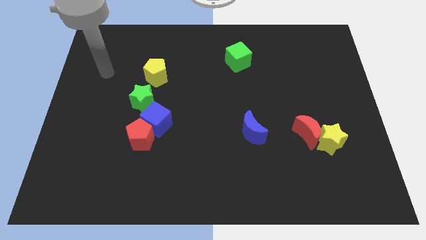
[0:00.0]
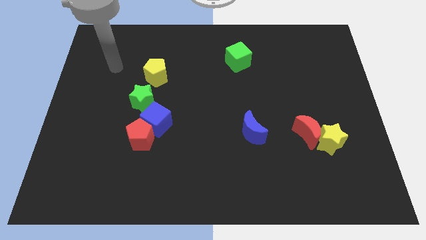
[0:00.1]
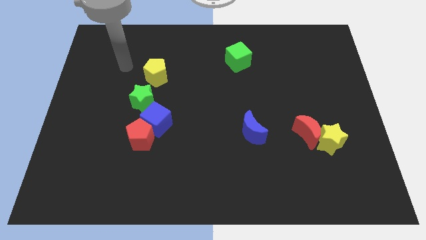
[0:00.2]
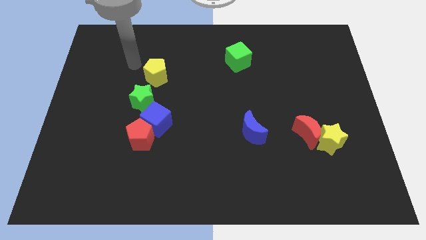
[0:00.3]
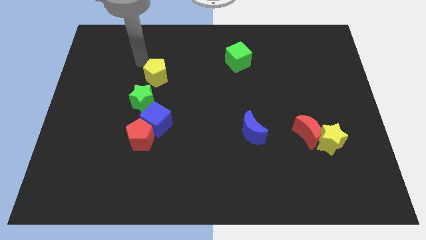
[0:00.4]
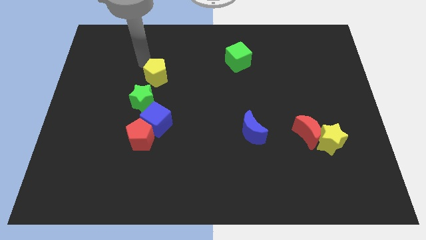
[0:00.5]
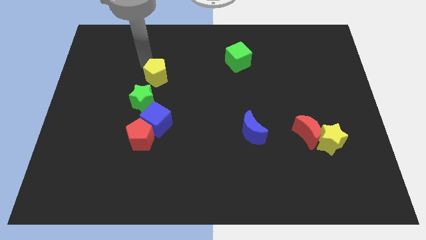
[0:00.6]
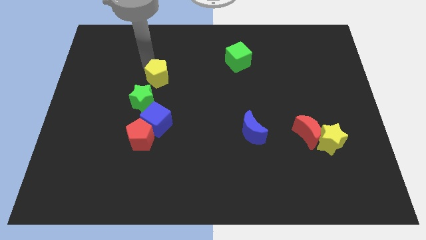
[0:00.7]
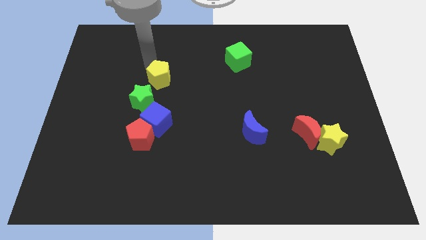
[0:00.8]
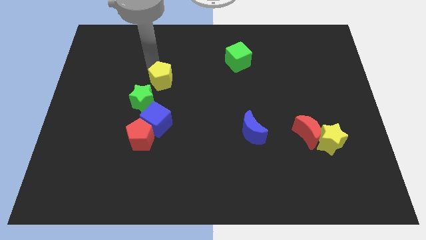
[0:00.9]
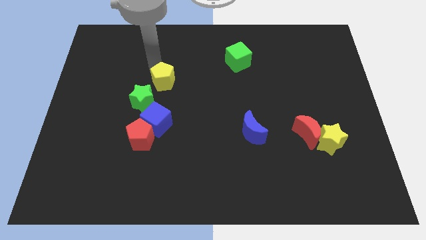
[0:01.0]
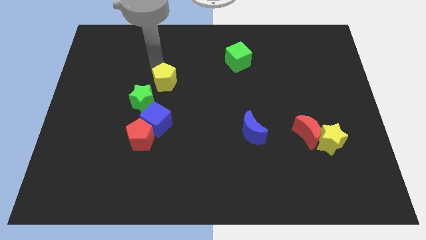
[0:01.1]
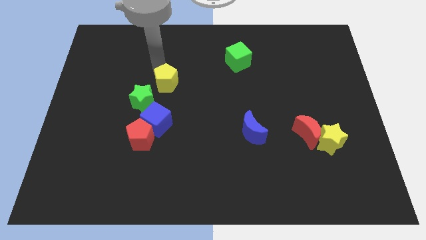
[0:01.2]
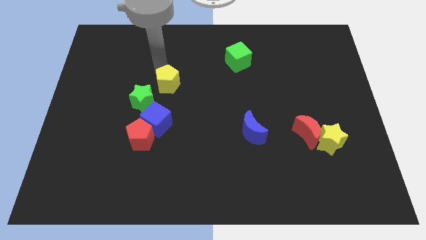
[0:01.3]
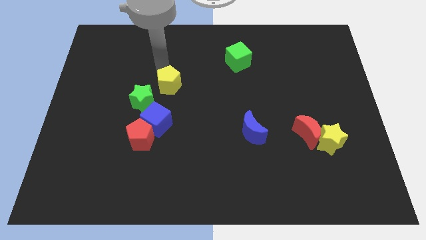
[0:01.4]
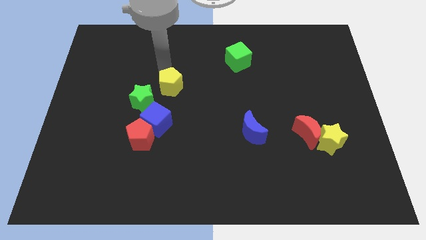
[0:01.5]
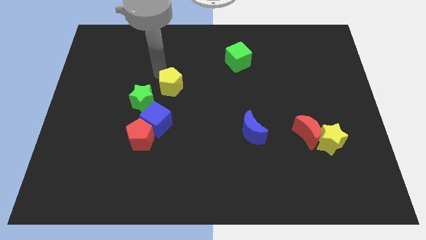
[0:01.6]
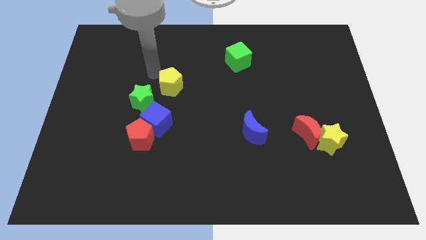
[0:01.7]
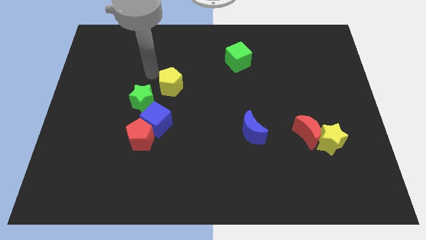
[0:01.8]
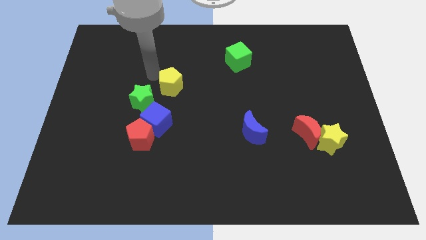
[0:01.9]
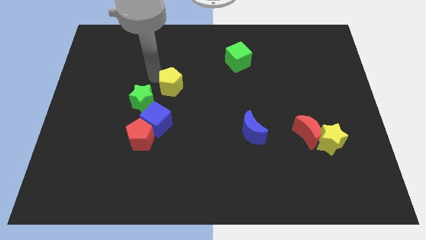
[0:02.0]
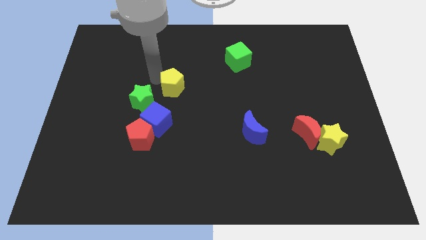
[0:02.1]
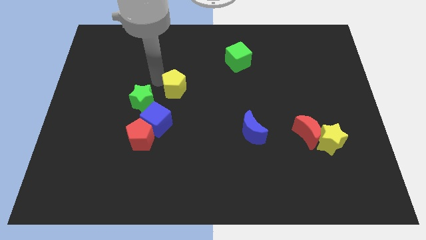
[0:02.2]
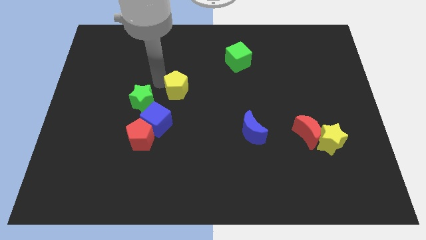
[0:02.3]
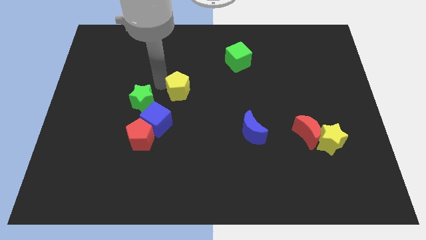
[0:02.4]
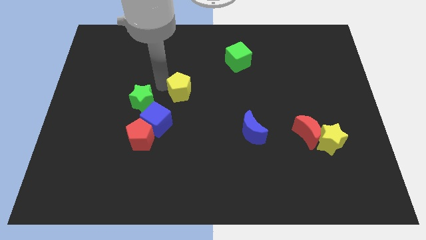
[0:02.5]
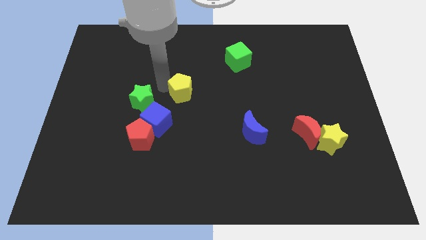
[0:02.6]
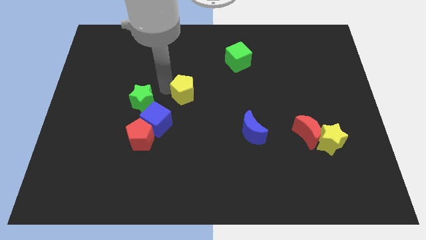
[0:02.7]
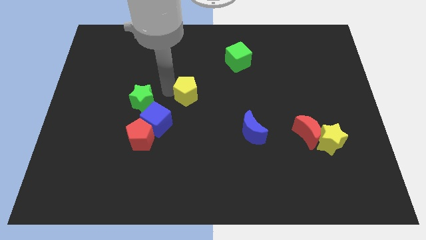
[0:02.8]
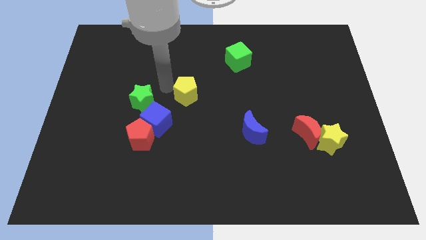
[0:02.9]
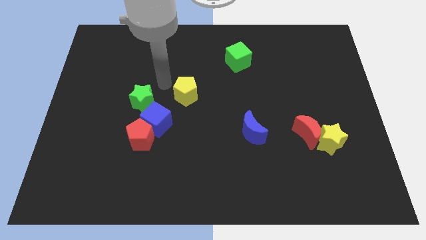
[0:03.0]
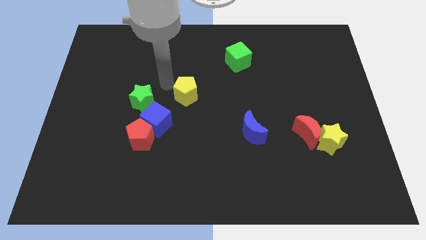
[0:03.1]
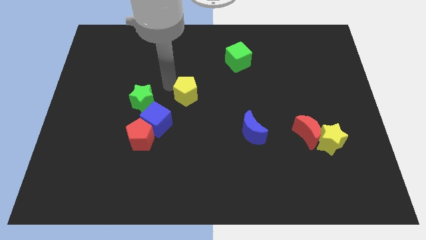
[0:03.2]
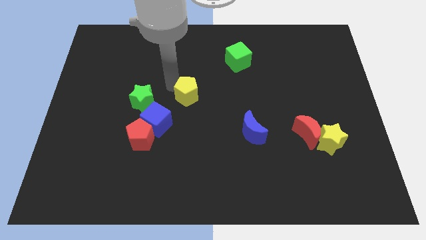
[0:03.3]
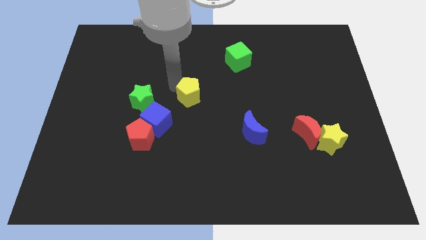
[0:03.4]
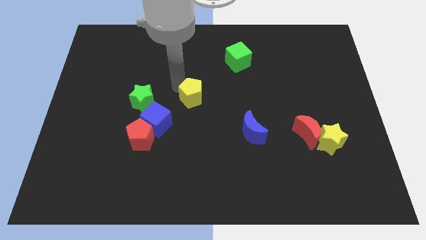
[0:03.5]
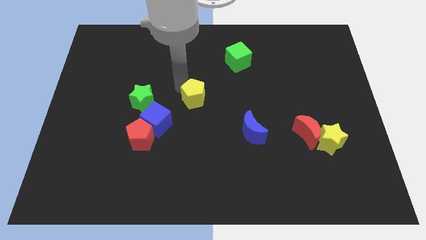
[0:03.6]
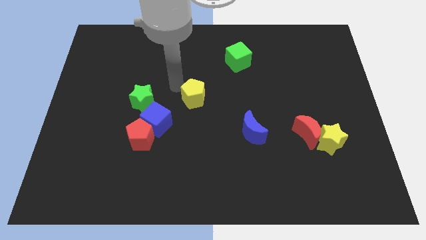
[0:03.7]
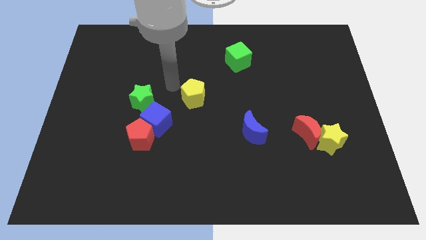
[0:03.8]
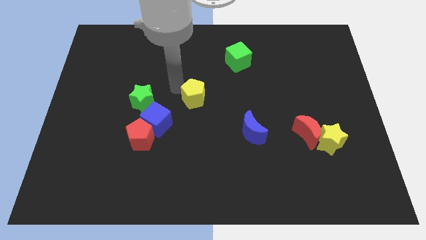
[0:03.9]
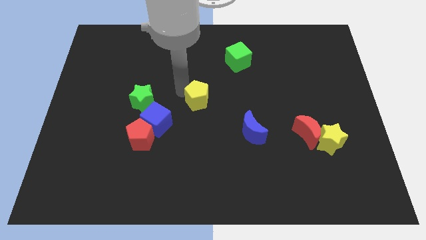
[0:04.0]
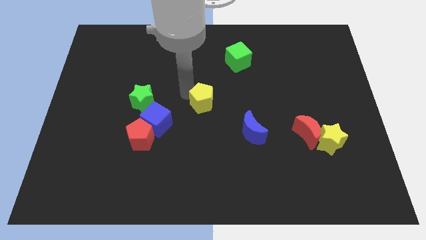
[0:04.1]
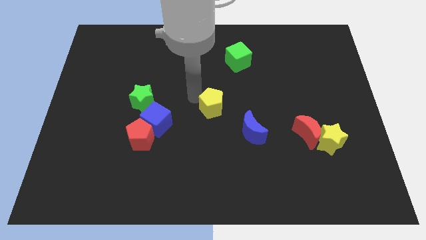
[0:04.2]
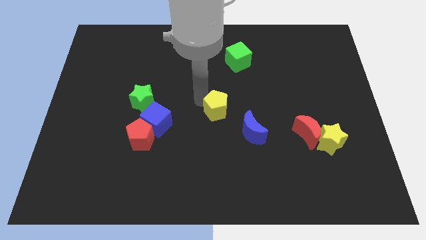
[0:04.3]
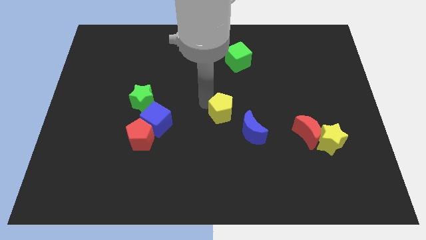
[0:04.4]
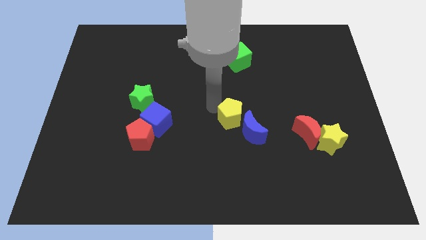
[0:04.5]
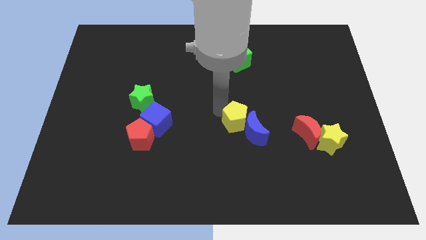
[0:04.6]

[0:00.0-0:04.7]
put the yellow pentagon close to the blue moon

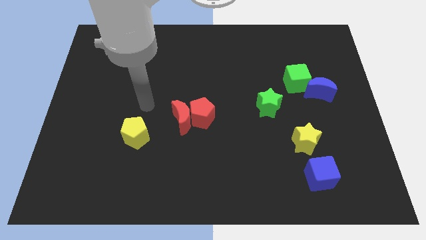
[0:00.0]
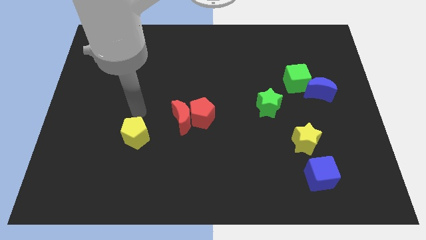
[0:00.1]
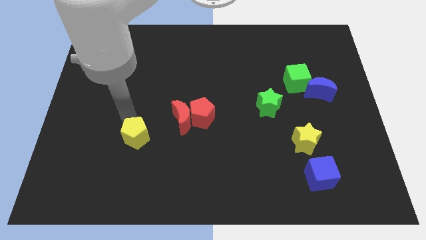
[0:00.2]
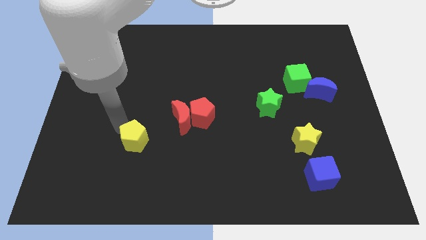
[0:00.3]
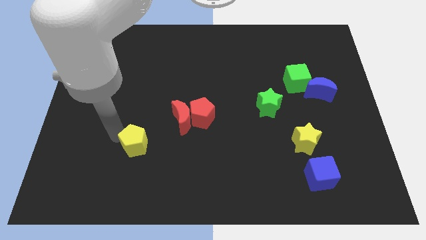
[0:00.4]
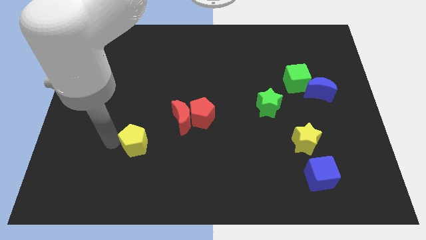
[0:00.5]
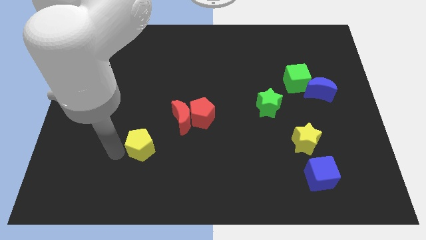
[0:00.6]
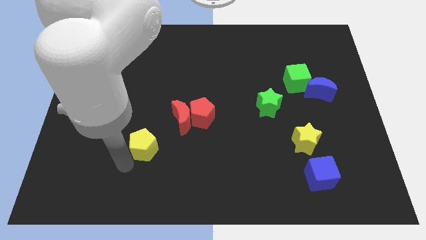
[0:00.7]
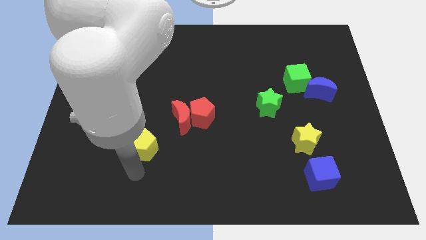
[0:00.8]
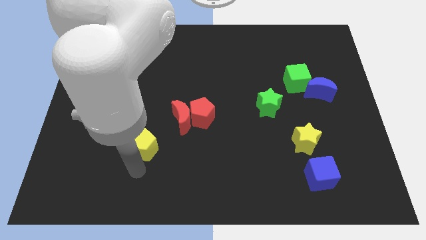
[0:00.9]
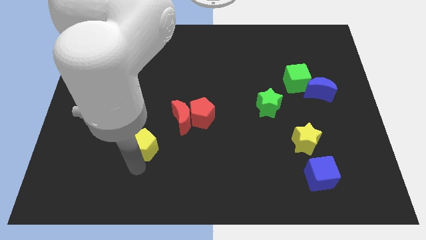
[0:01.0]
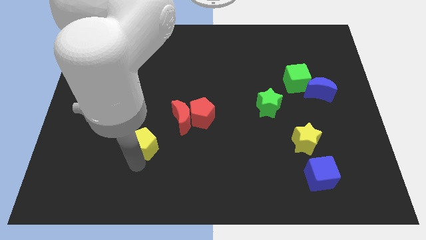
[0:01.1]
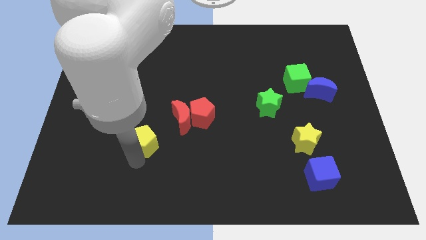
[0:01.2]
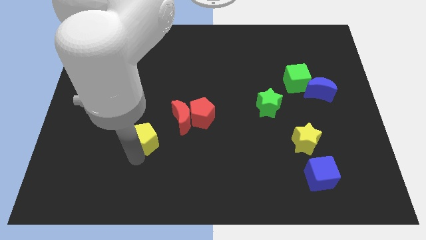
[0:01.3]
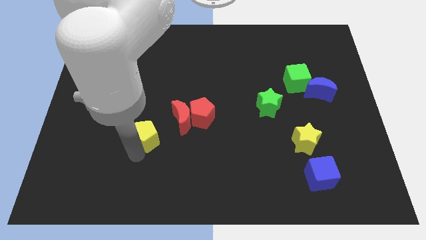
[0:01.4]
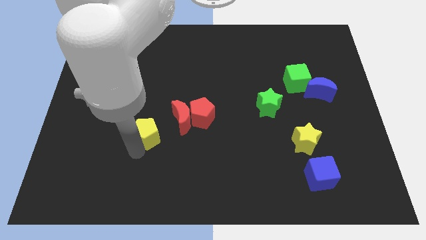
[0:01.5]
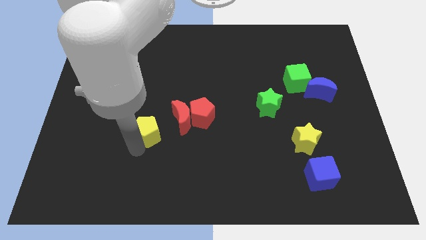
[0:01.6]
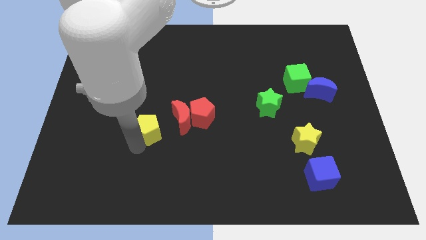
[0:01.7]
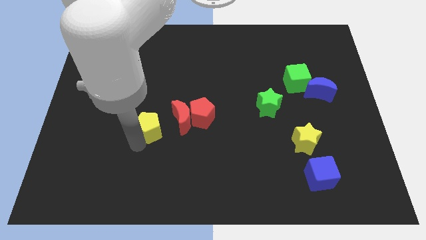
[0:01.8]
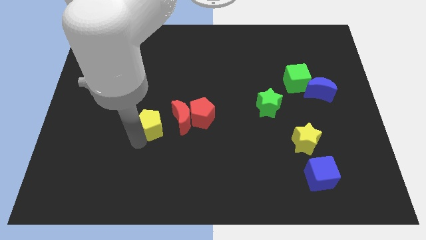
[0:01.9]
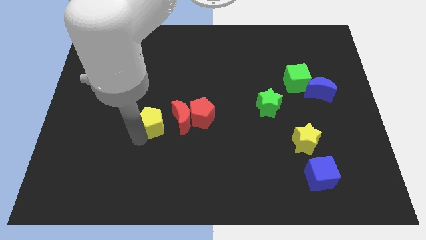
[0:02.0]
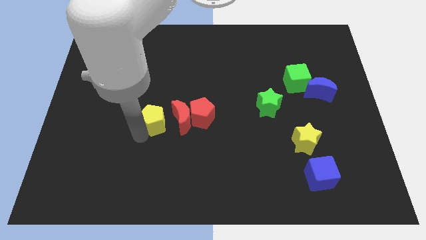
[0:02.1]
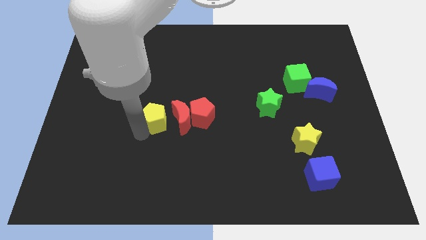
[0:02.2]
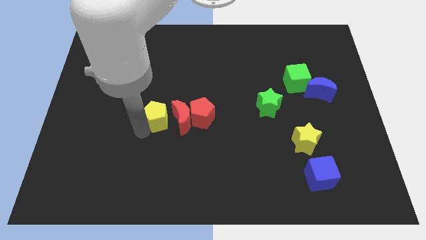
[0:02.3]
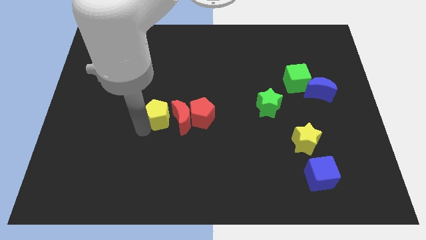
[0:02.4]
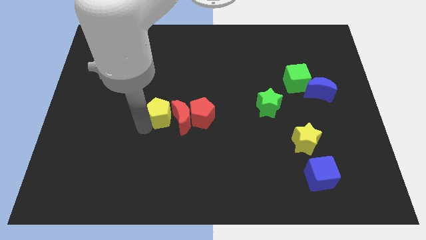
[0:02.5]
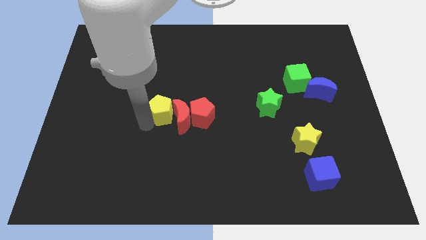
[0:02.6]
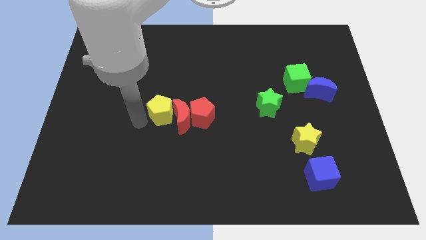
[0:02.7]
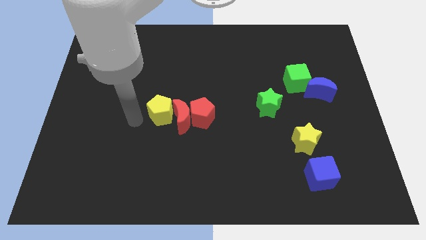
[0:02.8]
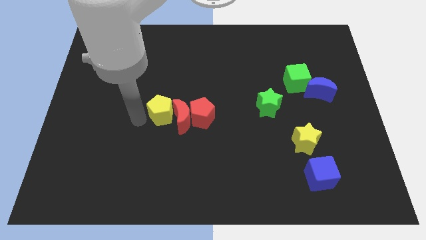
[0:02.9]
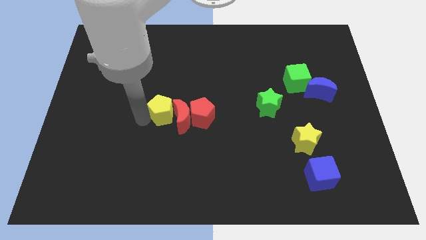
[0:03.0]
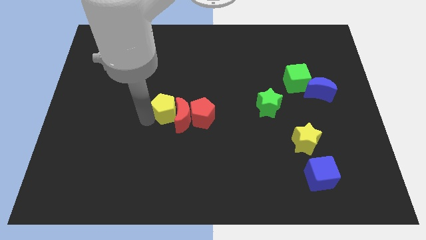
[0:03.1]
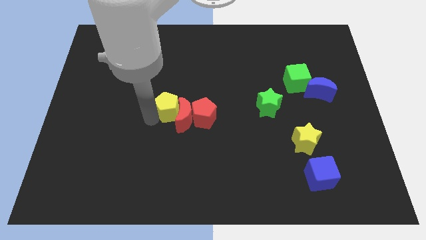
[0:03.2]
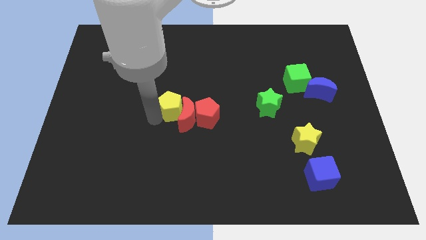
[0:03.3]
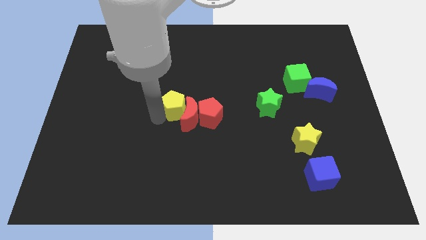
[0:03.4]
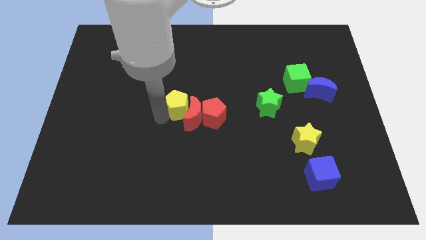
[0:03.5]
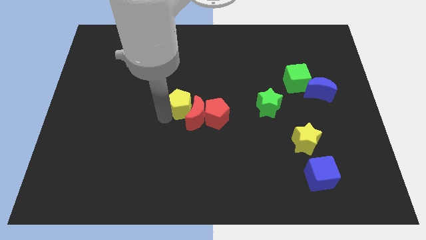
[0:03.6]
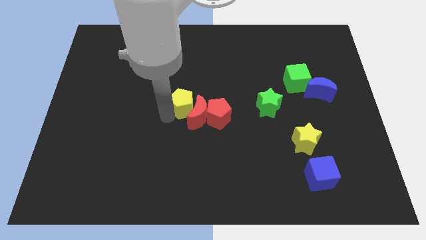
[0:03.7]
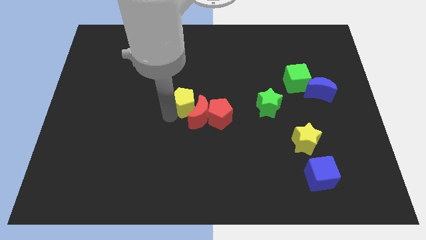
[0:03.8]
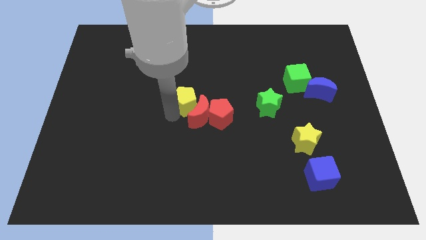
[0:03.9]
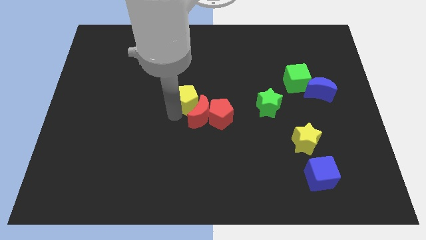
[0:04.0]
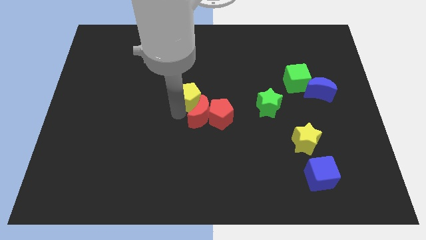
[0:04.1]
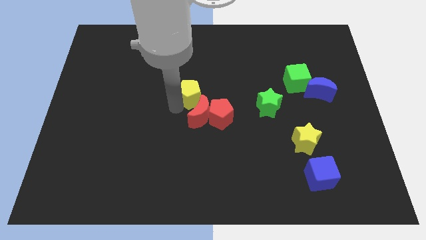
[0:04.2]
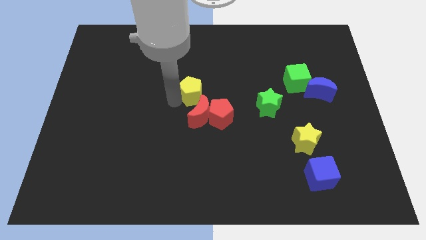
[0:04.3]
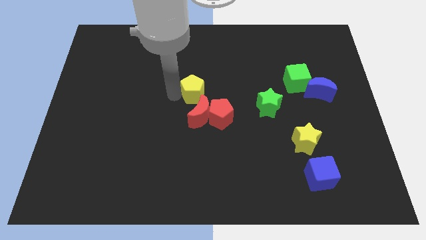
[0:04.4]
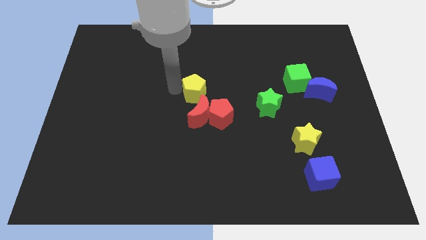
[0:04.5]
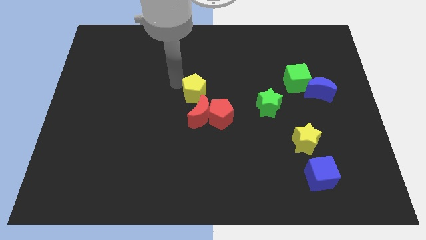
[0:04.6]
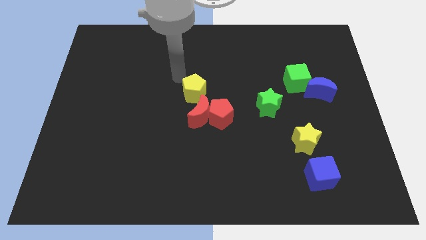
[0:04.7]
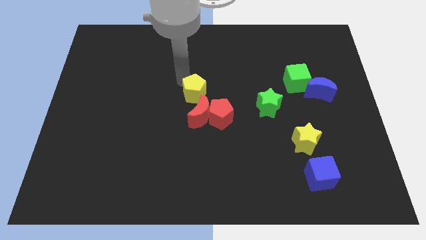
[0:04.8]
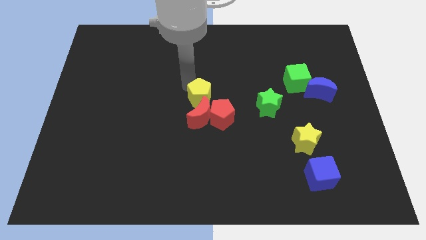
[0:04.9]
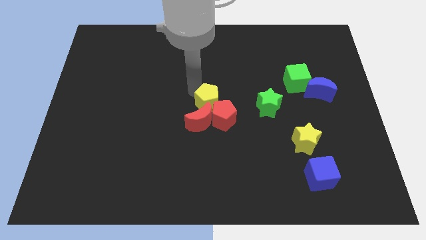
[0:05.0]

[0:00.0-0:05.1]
push the yellow pentagon close to the red pentagon
